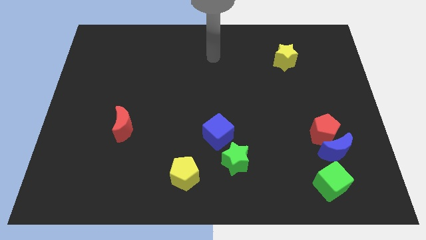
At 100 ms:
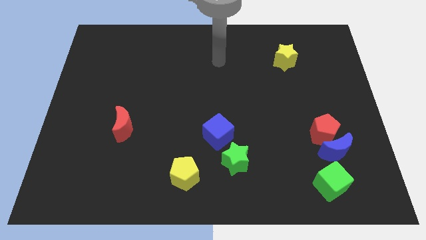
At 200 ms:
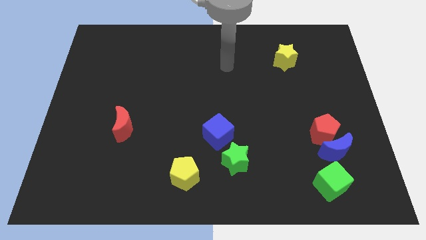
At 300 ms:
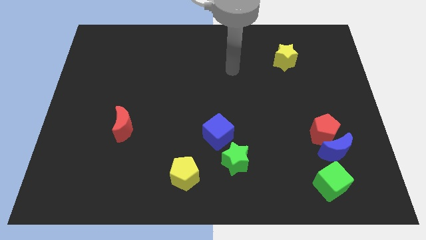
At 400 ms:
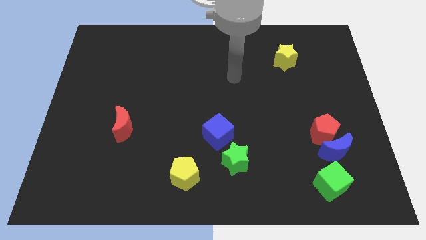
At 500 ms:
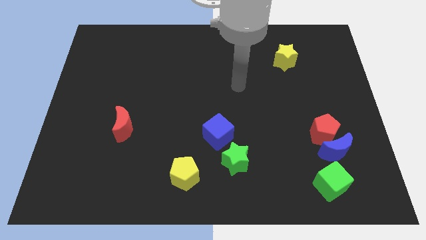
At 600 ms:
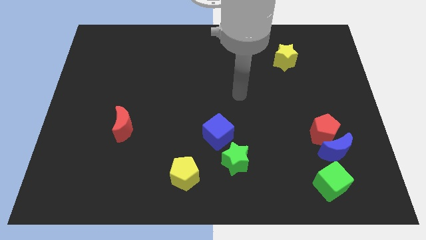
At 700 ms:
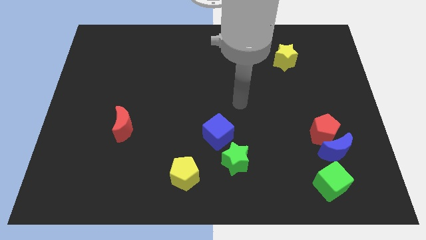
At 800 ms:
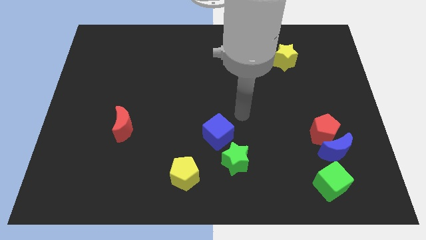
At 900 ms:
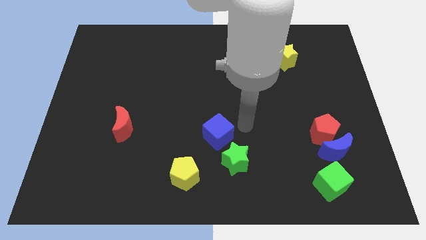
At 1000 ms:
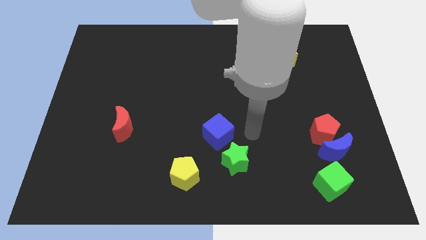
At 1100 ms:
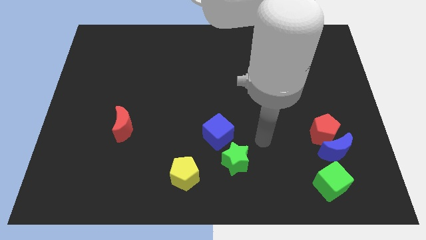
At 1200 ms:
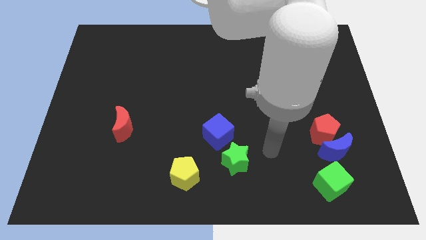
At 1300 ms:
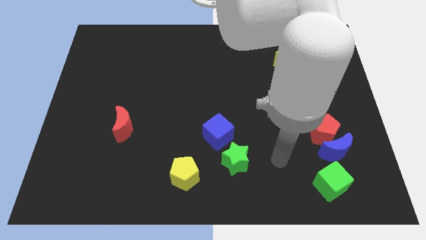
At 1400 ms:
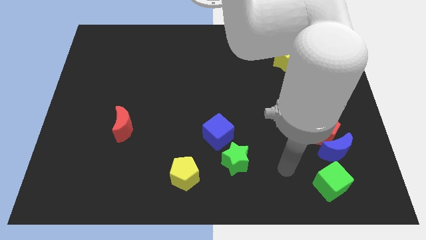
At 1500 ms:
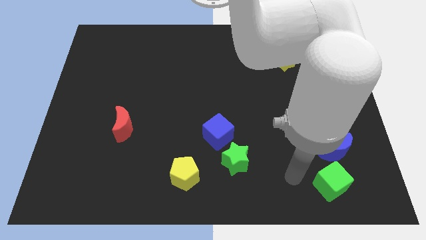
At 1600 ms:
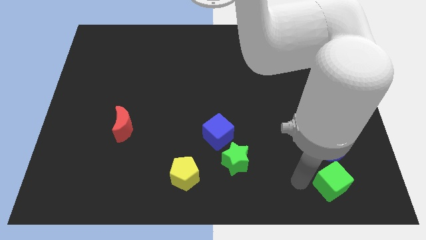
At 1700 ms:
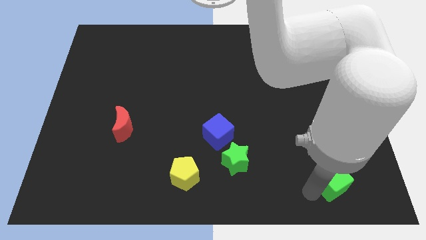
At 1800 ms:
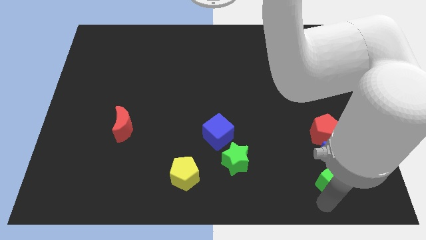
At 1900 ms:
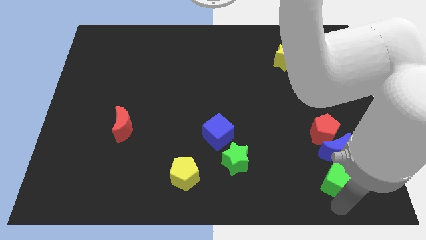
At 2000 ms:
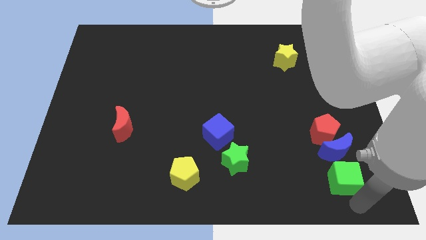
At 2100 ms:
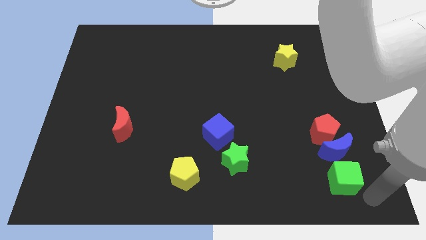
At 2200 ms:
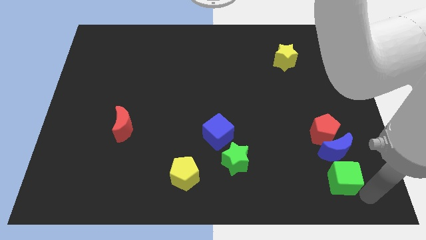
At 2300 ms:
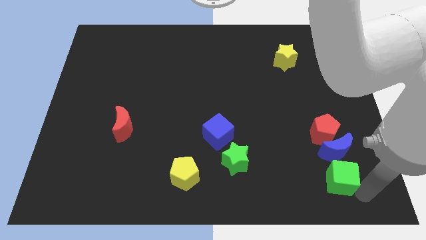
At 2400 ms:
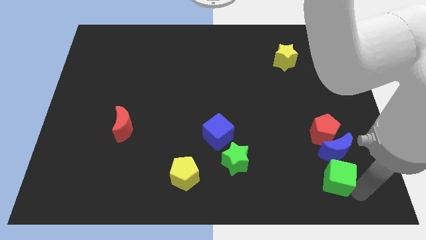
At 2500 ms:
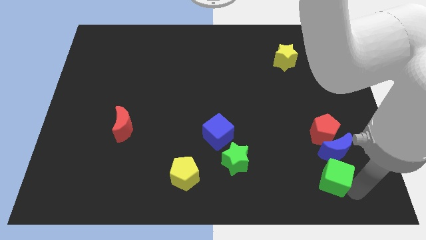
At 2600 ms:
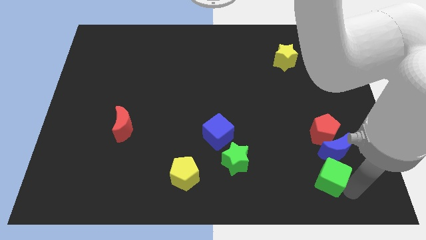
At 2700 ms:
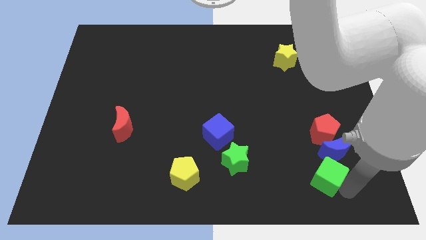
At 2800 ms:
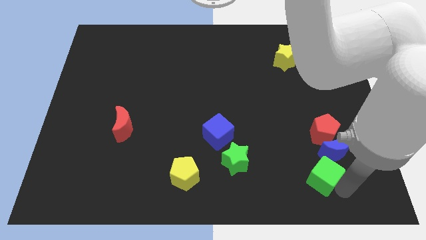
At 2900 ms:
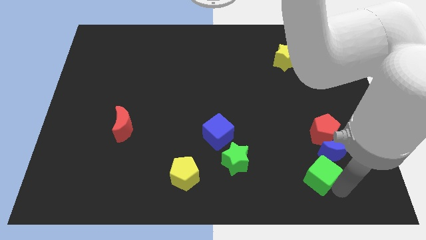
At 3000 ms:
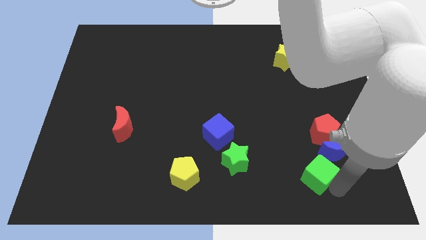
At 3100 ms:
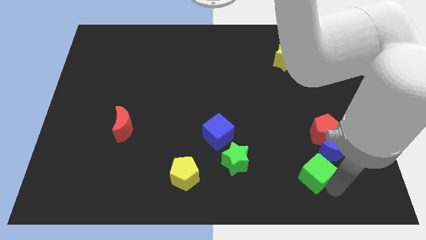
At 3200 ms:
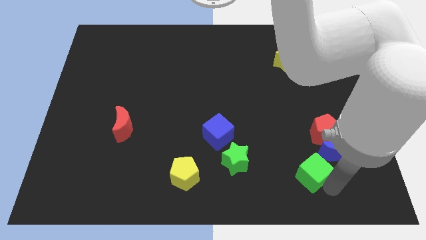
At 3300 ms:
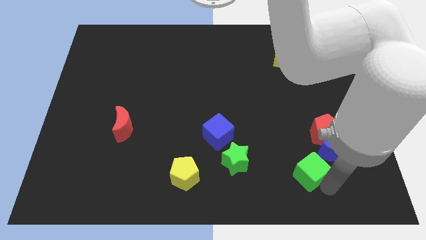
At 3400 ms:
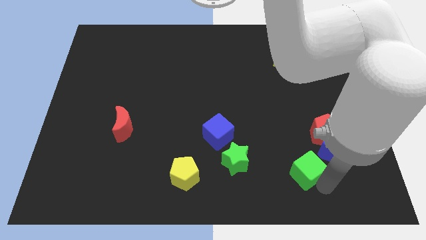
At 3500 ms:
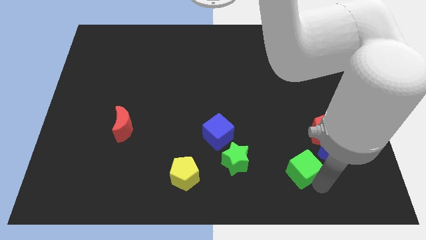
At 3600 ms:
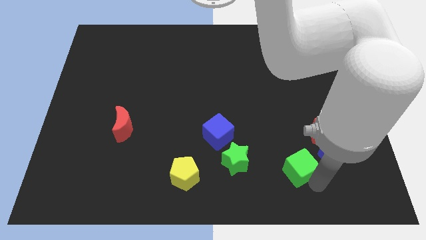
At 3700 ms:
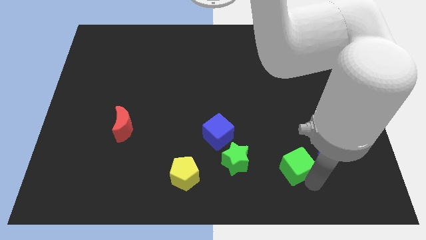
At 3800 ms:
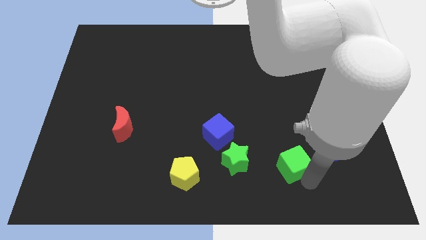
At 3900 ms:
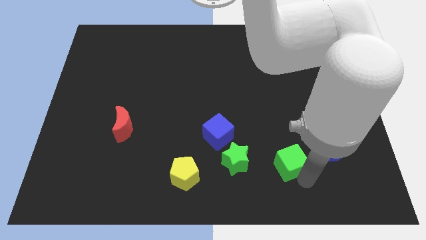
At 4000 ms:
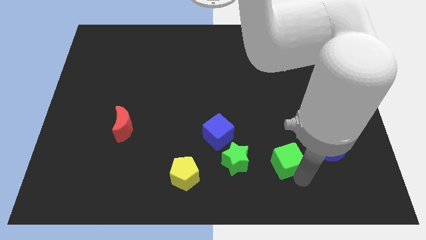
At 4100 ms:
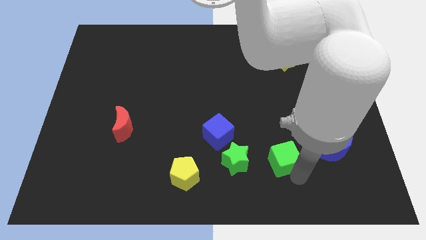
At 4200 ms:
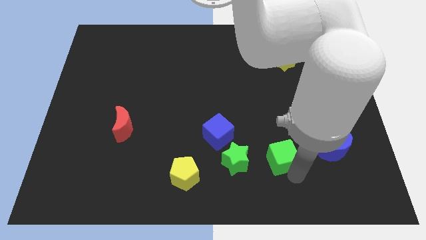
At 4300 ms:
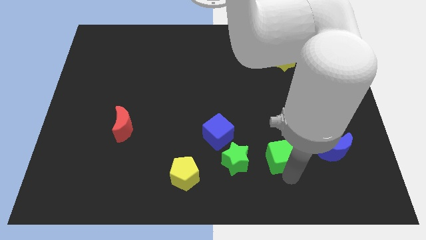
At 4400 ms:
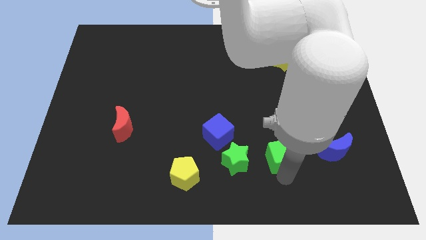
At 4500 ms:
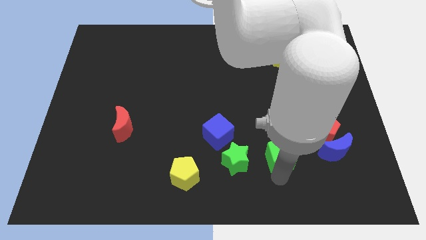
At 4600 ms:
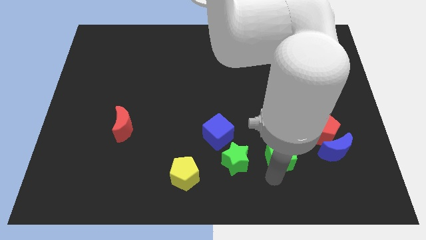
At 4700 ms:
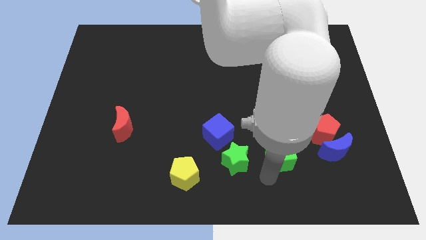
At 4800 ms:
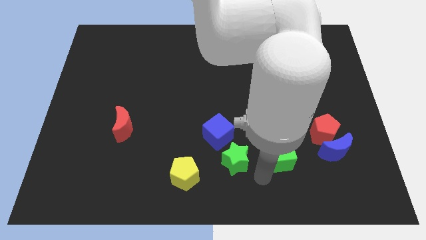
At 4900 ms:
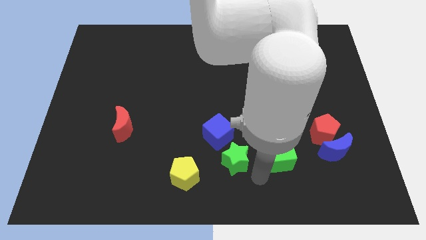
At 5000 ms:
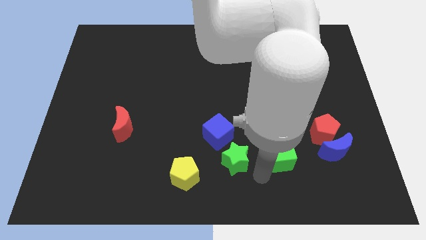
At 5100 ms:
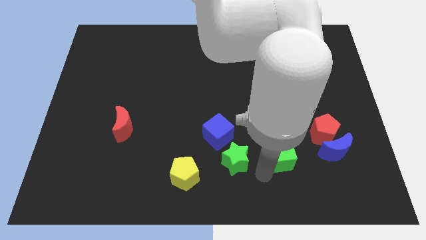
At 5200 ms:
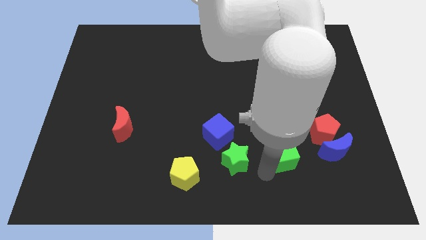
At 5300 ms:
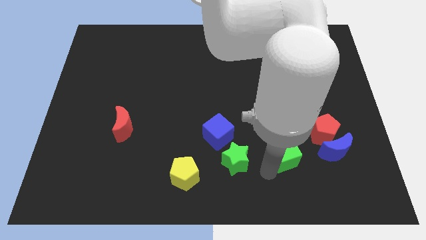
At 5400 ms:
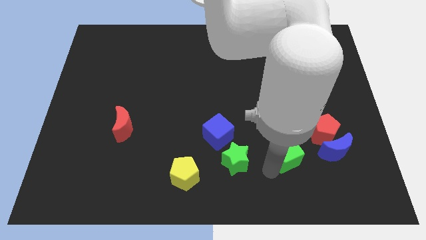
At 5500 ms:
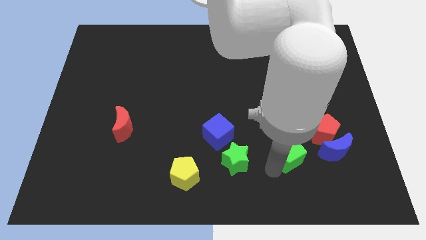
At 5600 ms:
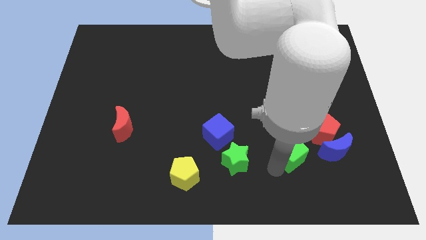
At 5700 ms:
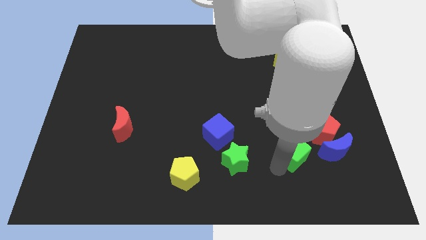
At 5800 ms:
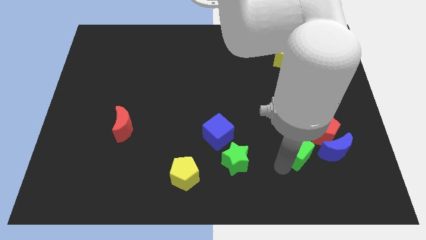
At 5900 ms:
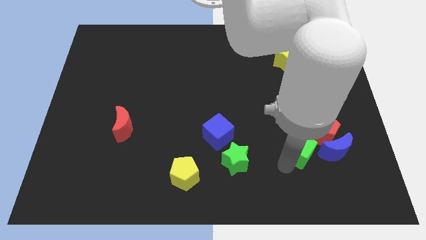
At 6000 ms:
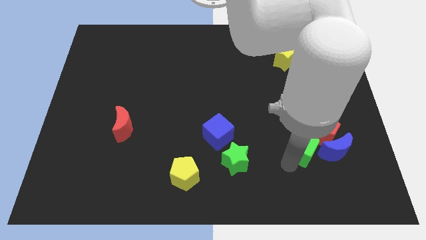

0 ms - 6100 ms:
push the green cube a little bit up

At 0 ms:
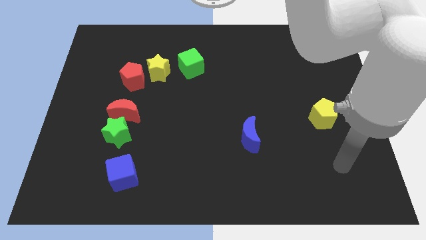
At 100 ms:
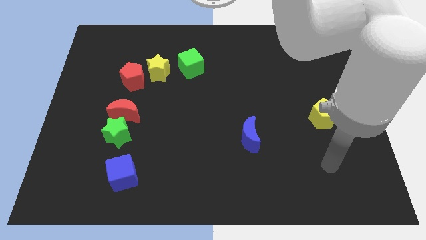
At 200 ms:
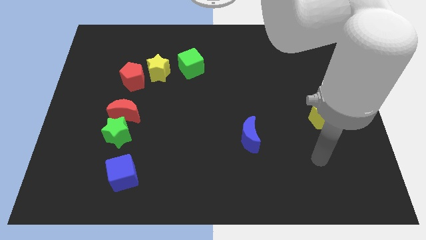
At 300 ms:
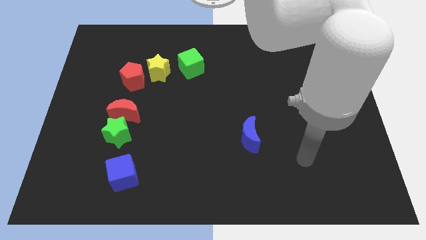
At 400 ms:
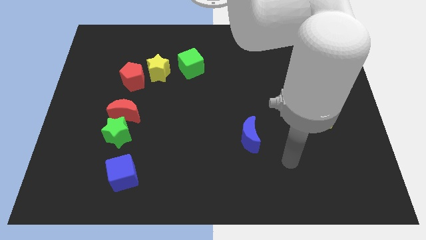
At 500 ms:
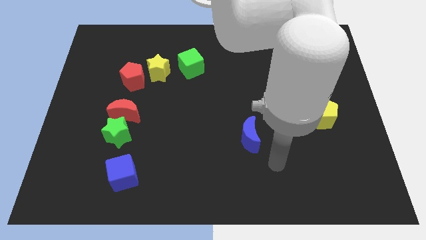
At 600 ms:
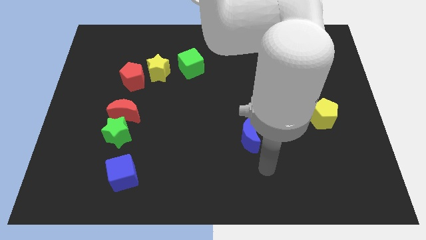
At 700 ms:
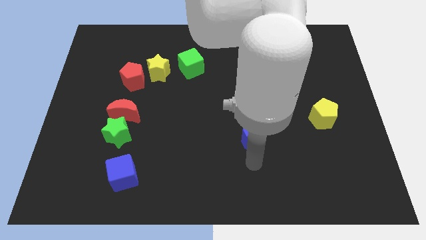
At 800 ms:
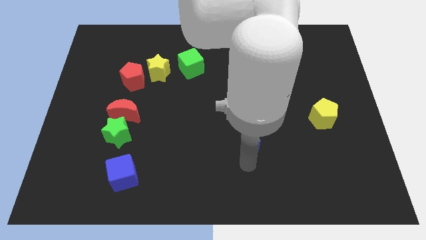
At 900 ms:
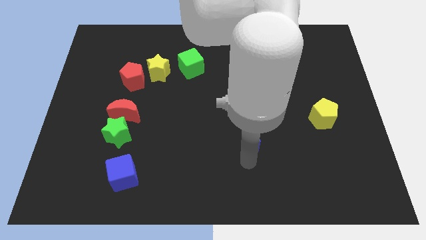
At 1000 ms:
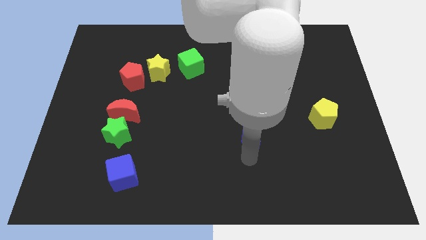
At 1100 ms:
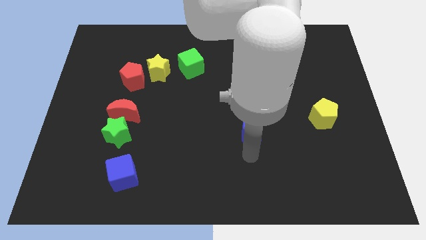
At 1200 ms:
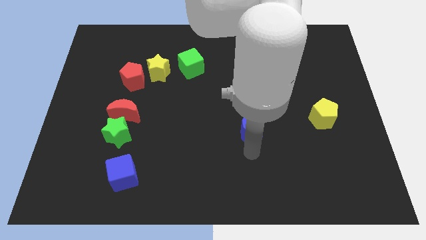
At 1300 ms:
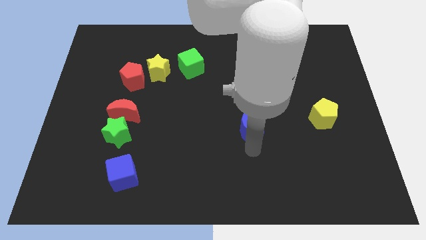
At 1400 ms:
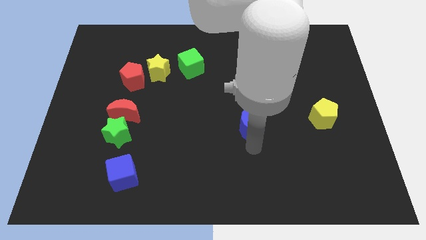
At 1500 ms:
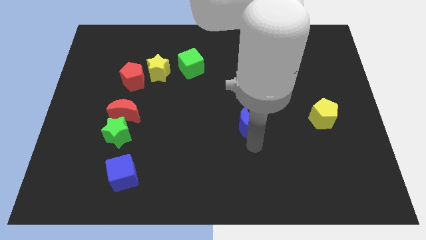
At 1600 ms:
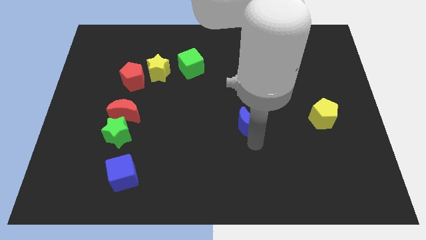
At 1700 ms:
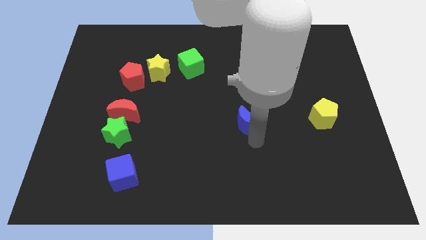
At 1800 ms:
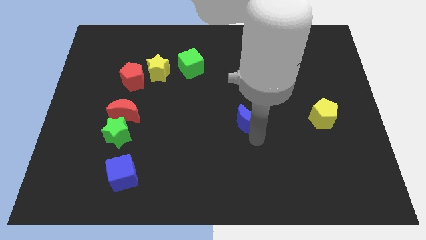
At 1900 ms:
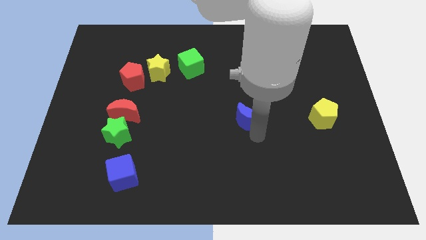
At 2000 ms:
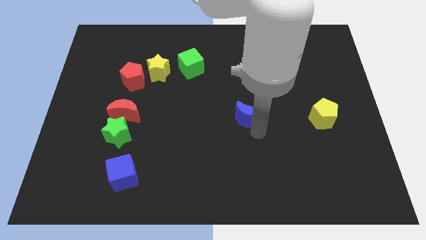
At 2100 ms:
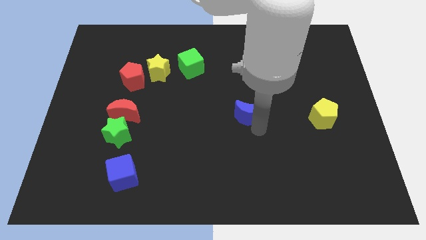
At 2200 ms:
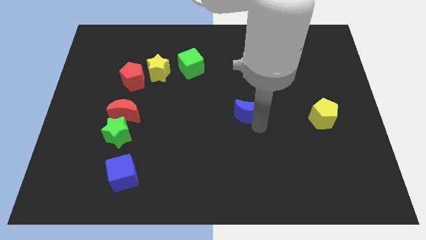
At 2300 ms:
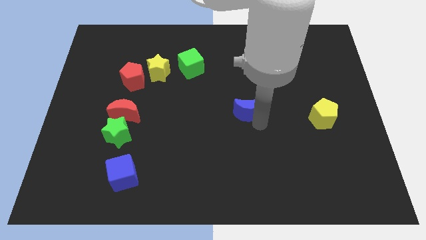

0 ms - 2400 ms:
push the blue moon a bit upwards
